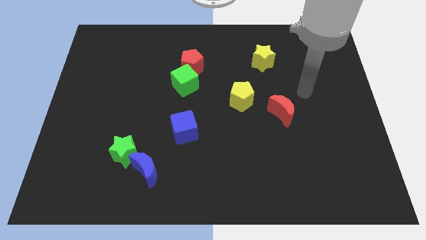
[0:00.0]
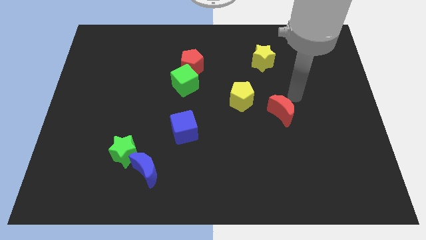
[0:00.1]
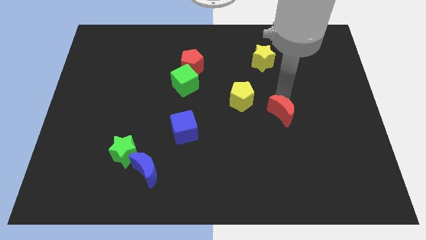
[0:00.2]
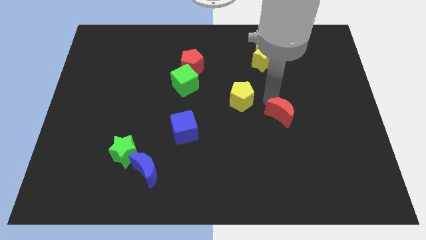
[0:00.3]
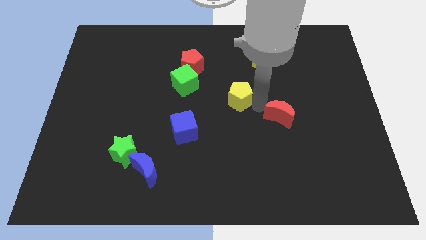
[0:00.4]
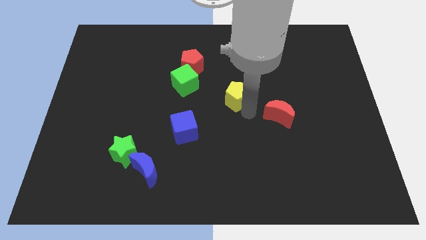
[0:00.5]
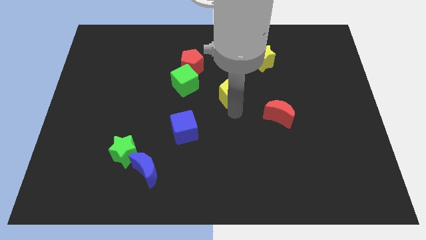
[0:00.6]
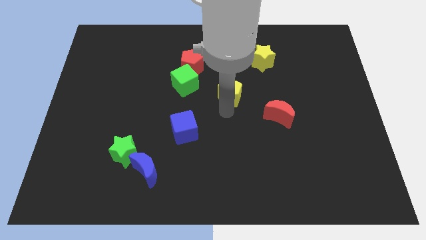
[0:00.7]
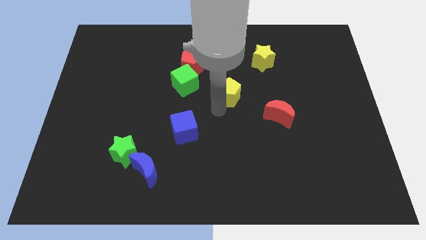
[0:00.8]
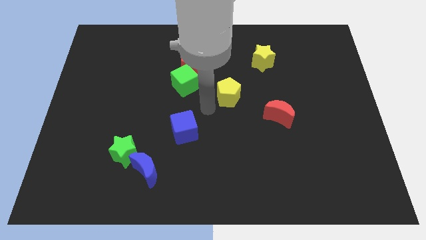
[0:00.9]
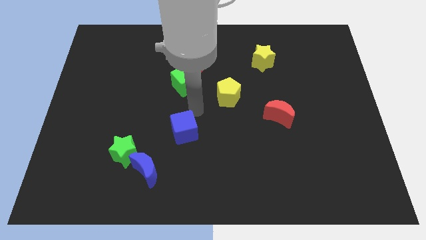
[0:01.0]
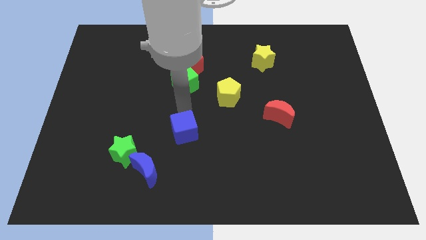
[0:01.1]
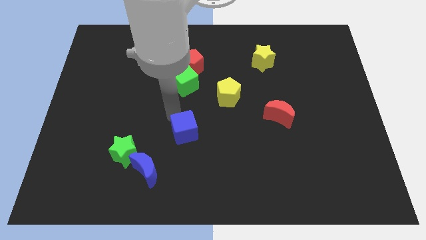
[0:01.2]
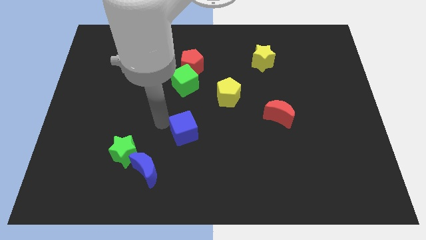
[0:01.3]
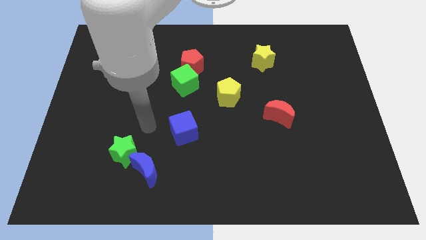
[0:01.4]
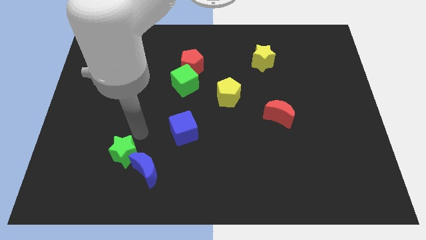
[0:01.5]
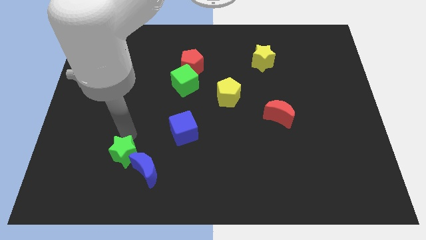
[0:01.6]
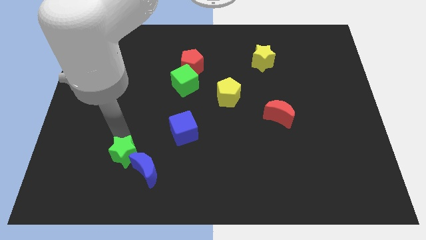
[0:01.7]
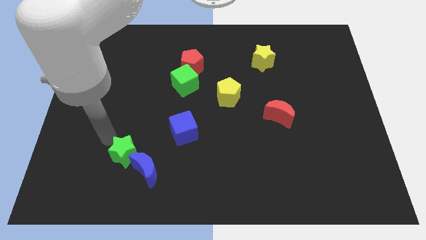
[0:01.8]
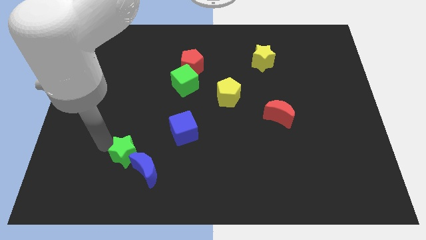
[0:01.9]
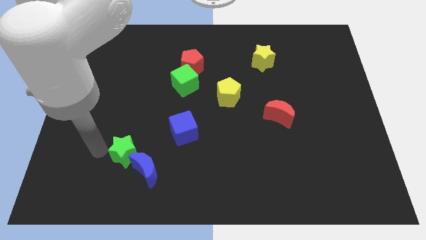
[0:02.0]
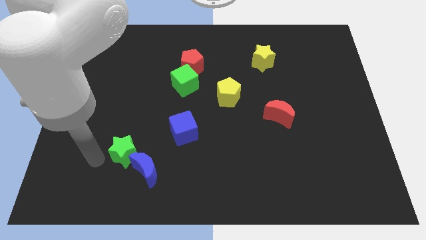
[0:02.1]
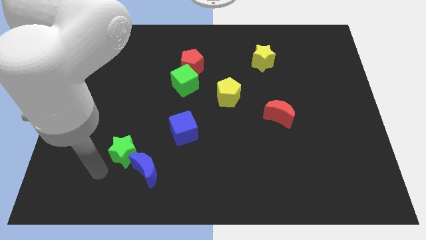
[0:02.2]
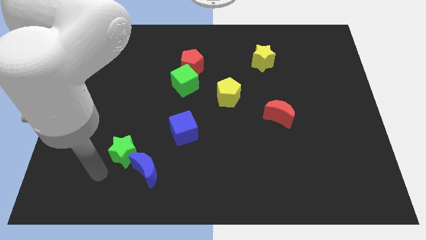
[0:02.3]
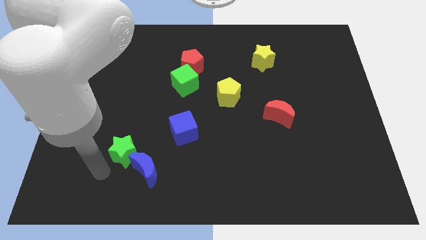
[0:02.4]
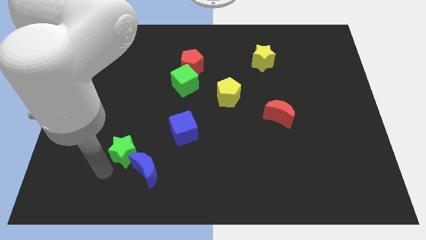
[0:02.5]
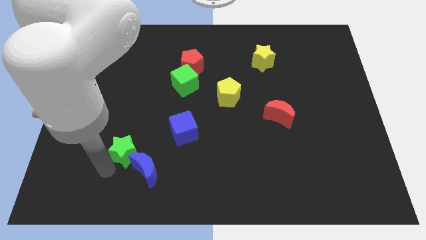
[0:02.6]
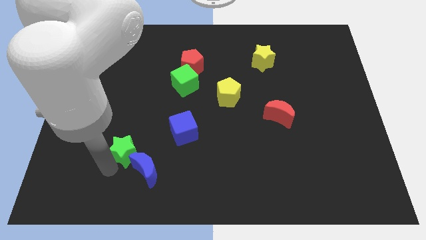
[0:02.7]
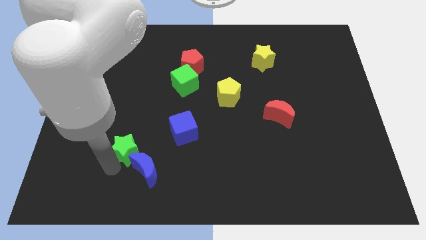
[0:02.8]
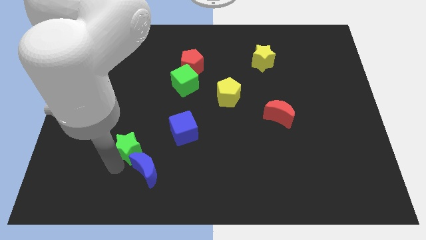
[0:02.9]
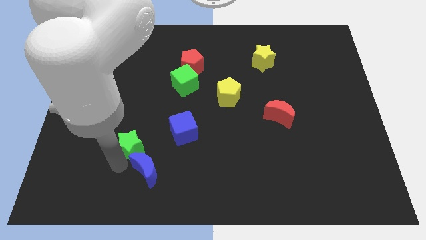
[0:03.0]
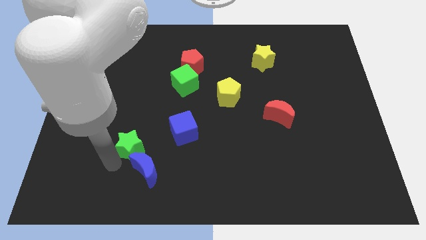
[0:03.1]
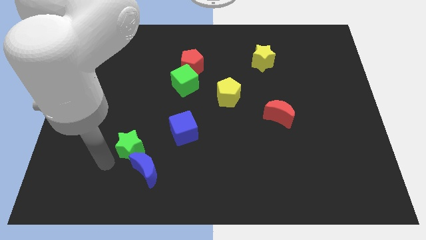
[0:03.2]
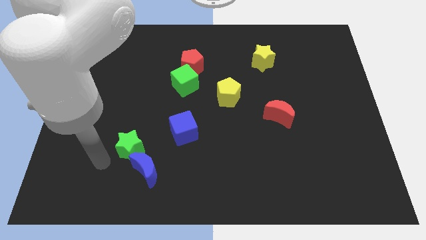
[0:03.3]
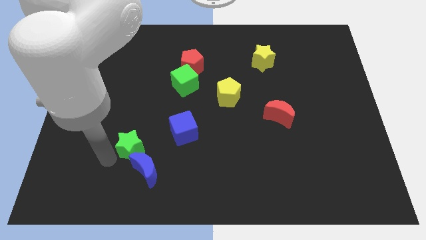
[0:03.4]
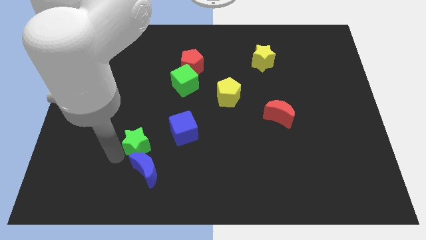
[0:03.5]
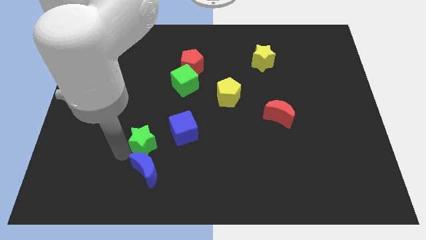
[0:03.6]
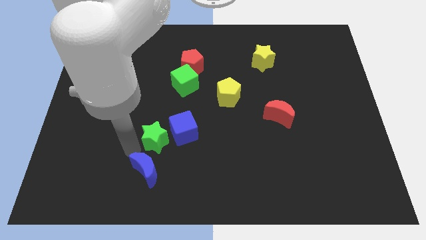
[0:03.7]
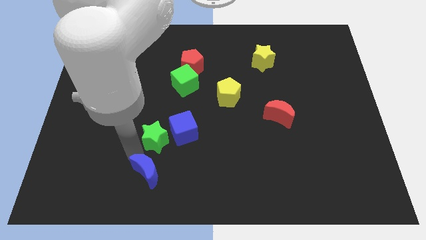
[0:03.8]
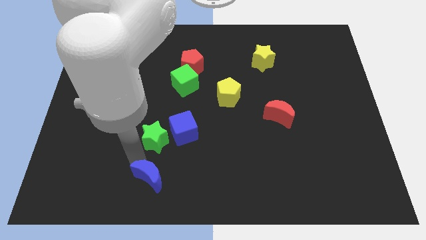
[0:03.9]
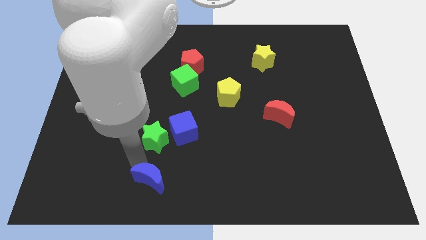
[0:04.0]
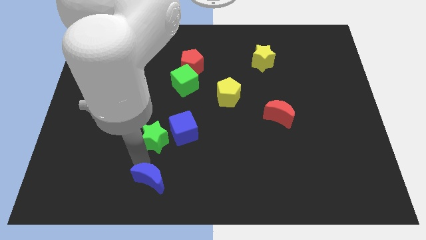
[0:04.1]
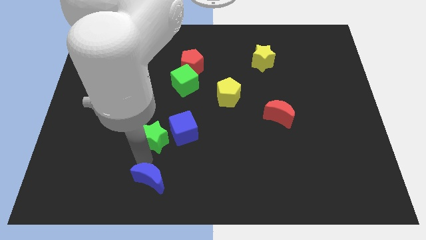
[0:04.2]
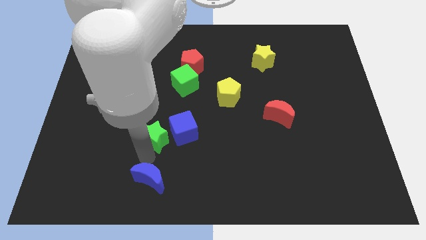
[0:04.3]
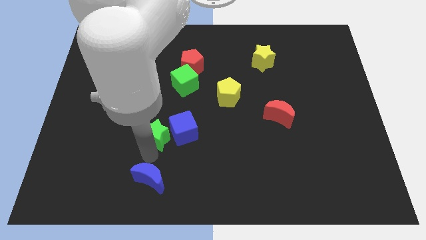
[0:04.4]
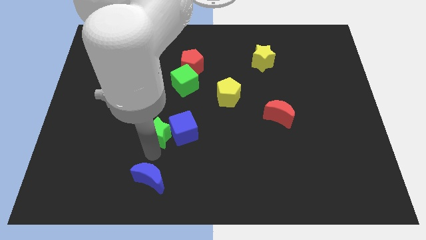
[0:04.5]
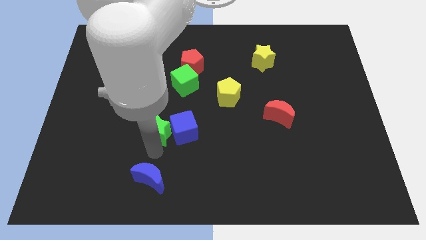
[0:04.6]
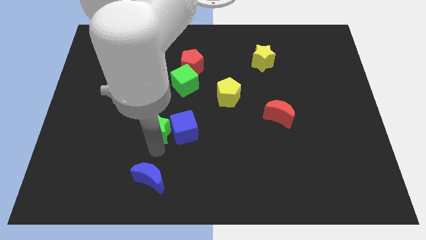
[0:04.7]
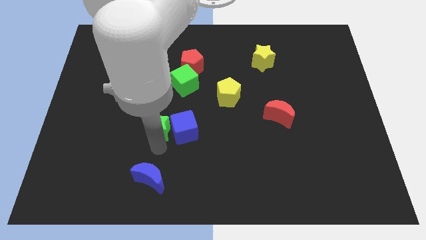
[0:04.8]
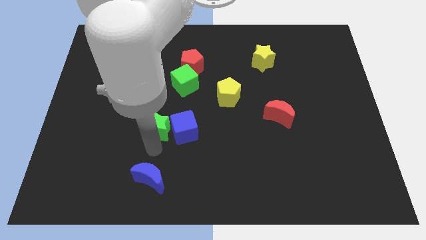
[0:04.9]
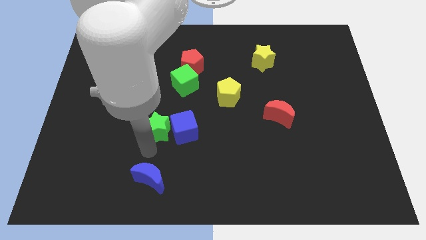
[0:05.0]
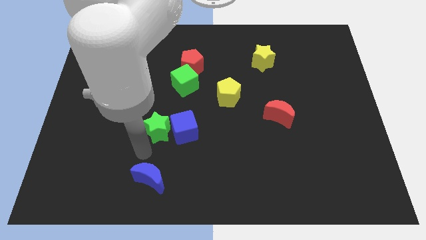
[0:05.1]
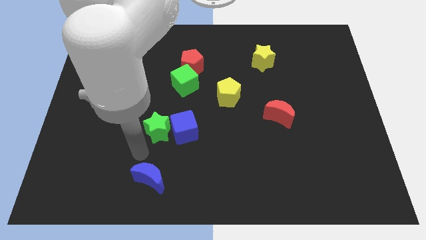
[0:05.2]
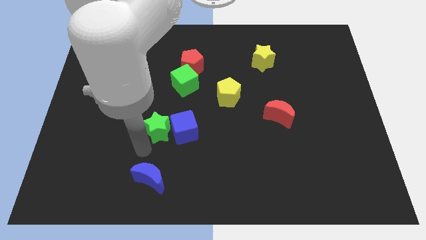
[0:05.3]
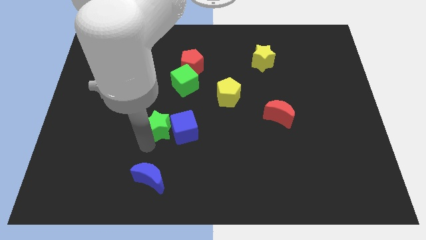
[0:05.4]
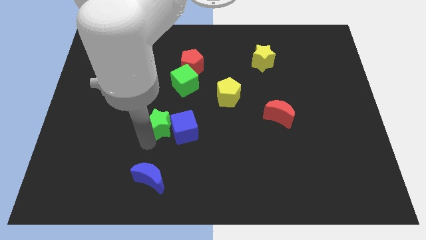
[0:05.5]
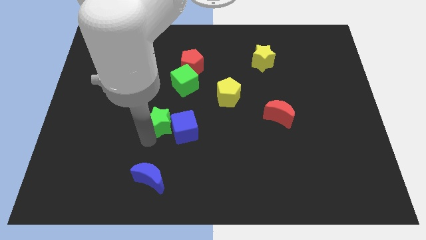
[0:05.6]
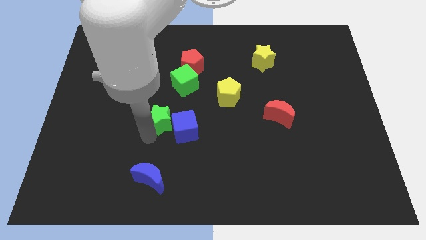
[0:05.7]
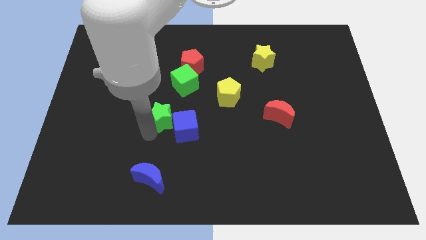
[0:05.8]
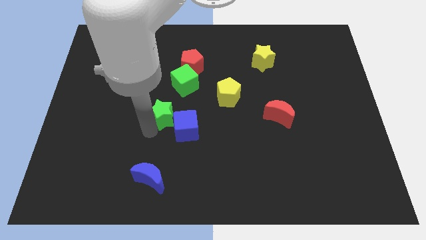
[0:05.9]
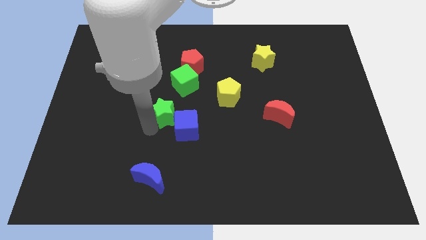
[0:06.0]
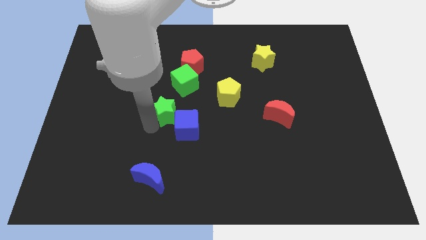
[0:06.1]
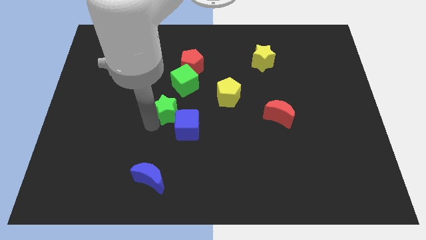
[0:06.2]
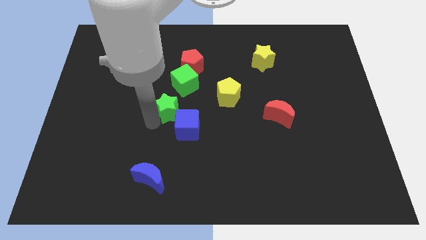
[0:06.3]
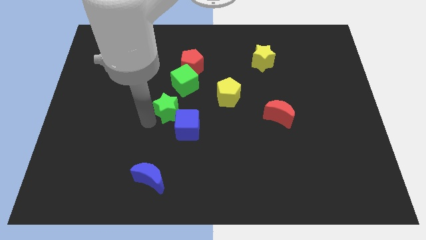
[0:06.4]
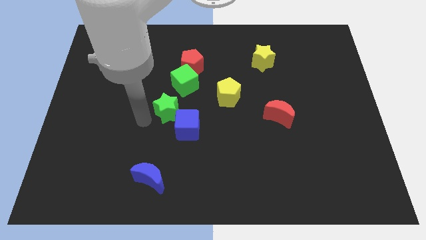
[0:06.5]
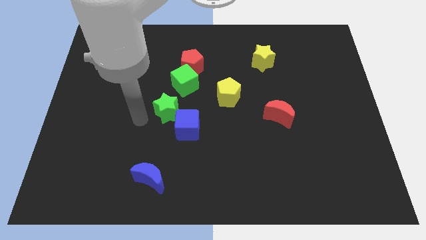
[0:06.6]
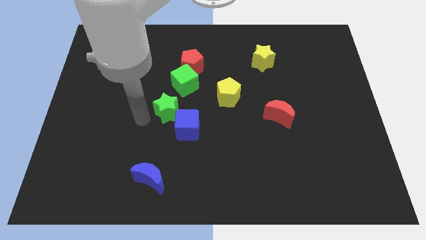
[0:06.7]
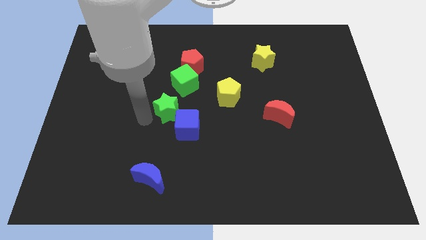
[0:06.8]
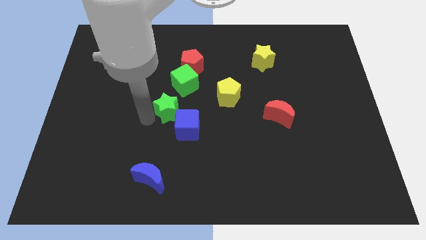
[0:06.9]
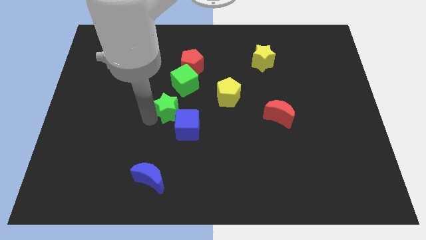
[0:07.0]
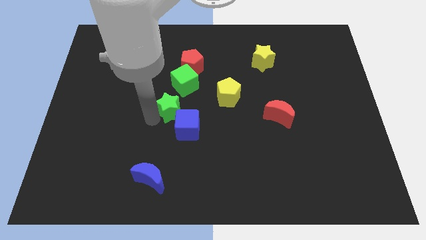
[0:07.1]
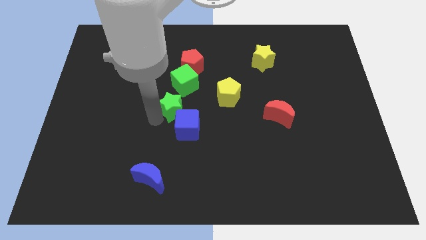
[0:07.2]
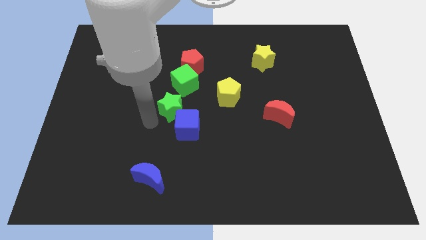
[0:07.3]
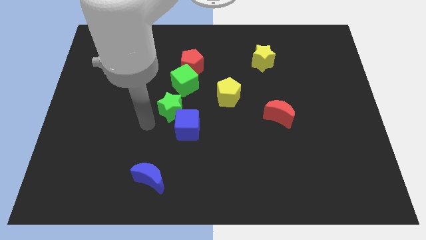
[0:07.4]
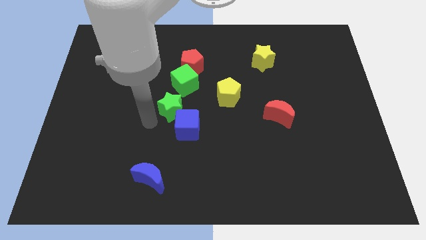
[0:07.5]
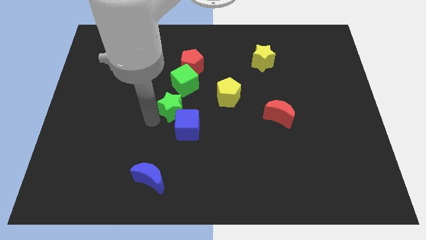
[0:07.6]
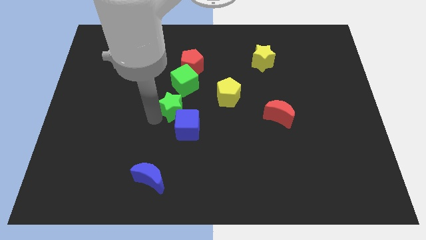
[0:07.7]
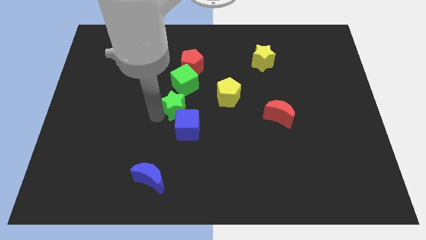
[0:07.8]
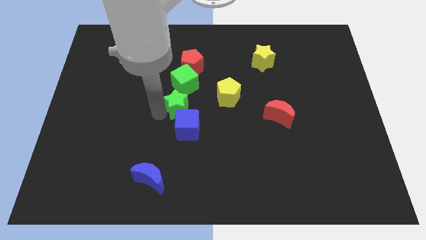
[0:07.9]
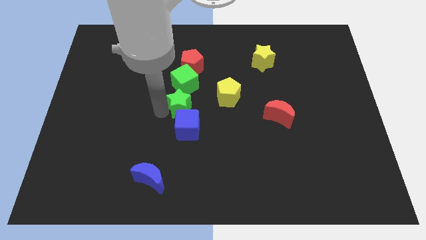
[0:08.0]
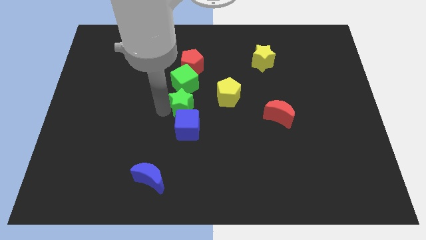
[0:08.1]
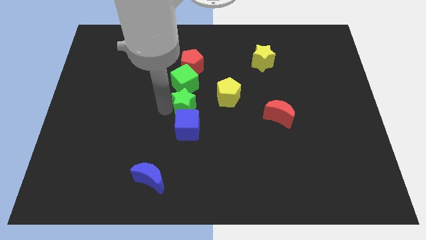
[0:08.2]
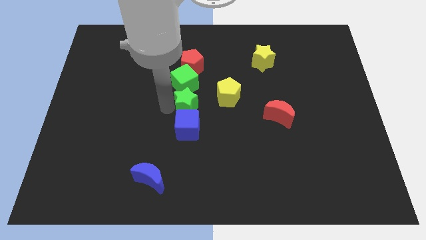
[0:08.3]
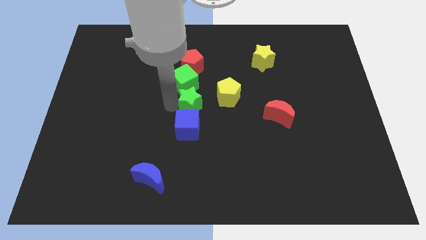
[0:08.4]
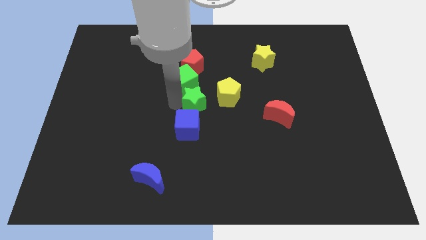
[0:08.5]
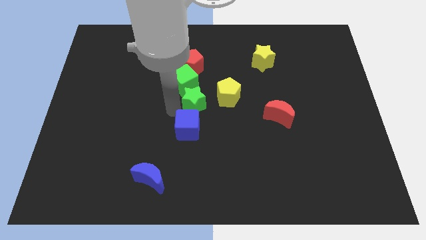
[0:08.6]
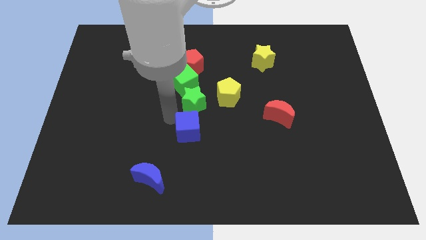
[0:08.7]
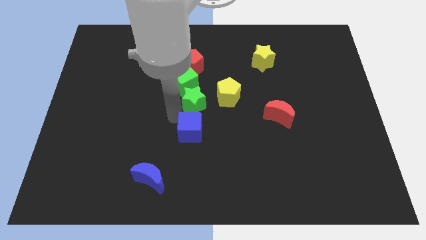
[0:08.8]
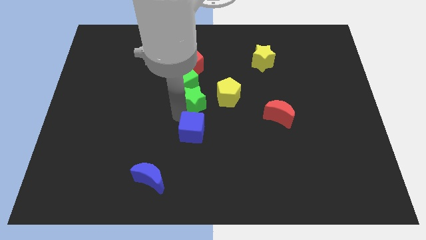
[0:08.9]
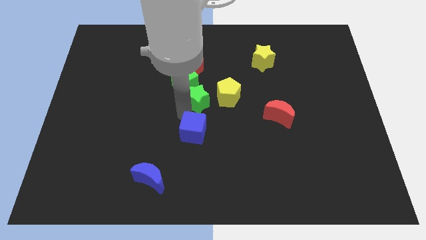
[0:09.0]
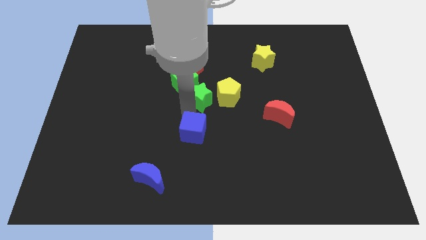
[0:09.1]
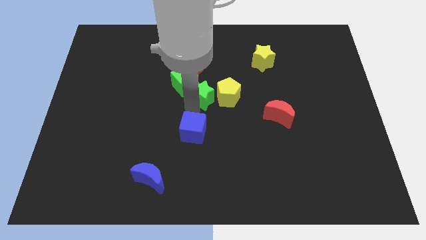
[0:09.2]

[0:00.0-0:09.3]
slide the green star to the right side of the green cube
